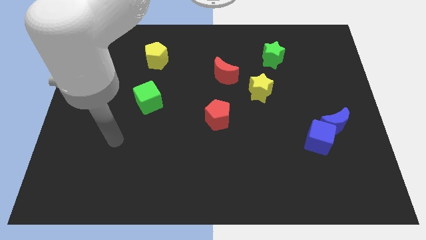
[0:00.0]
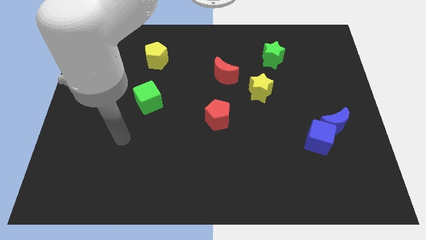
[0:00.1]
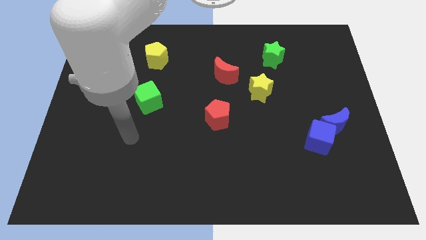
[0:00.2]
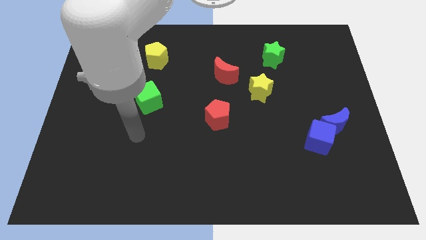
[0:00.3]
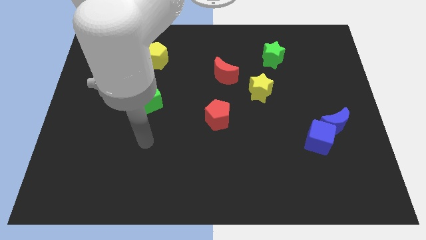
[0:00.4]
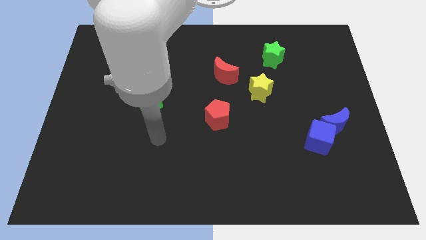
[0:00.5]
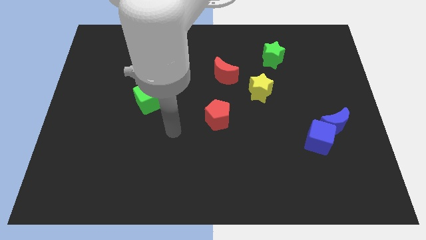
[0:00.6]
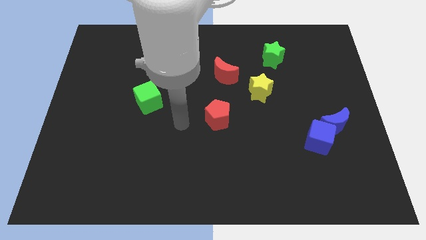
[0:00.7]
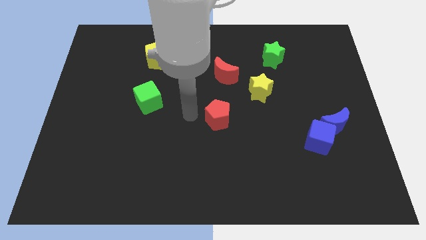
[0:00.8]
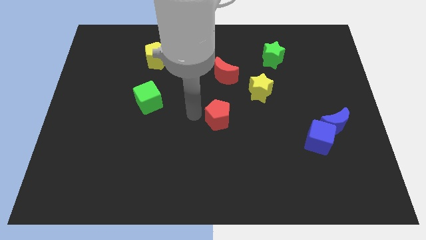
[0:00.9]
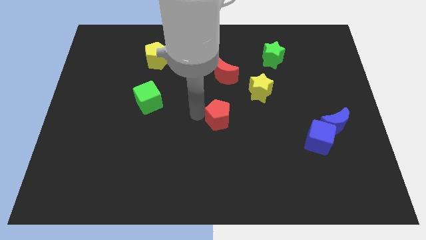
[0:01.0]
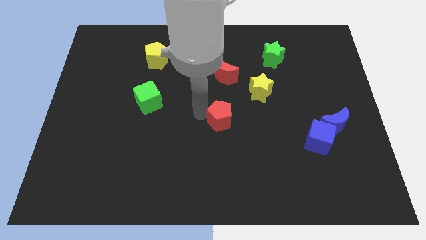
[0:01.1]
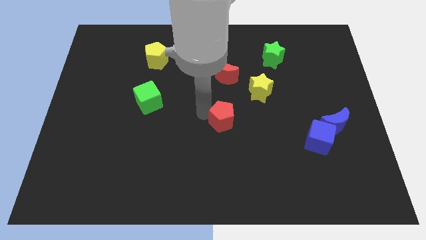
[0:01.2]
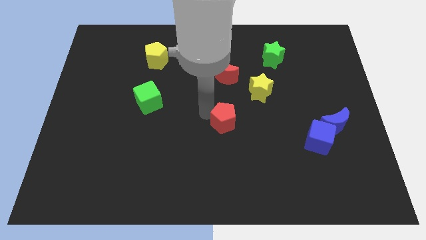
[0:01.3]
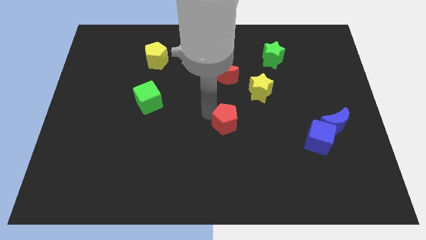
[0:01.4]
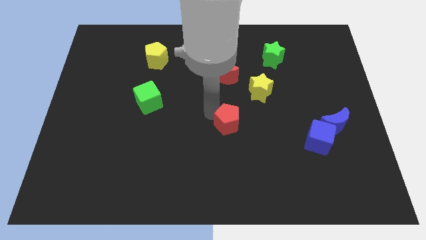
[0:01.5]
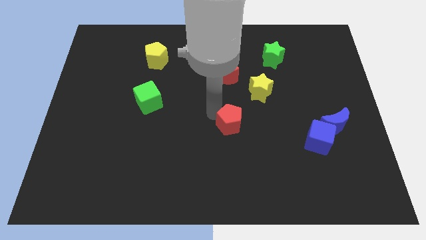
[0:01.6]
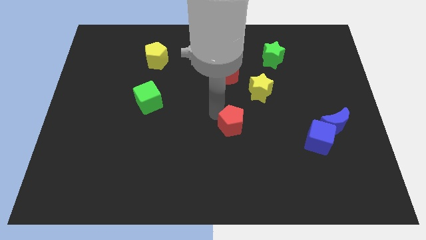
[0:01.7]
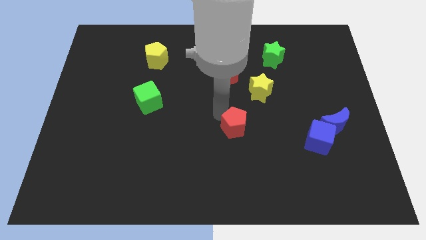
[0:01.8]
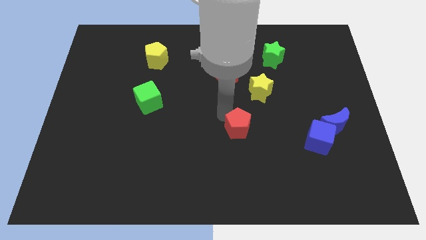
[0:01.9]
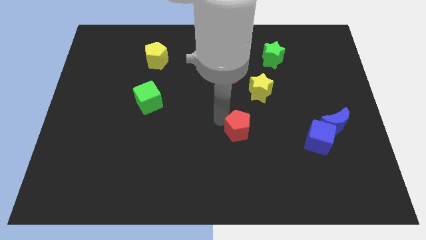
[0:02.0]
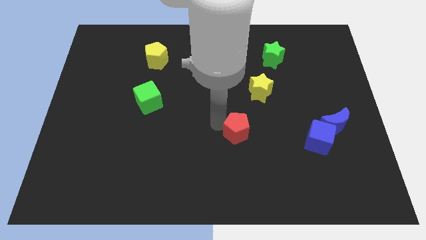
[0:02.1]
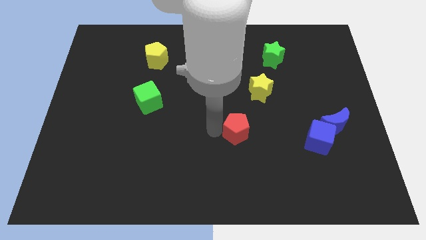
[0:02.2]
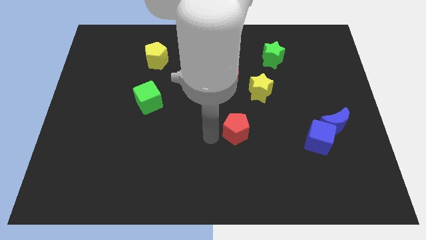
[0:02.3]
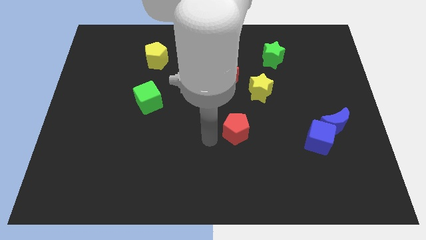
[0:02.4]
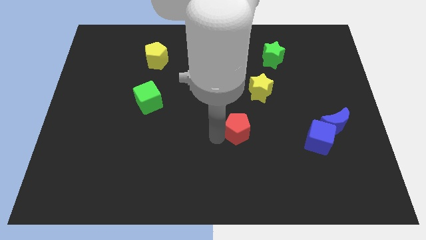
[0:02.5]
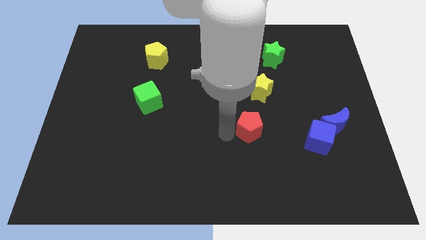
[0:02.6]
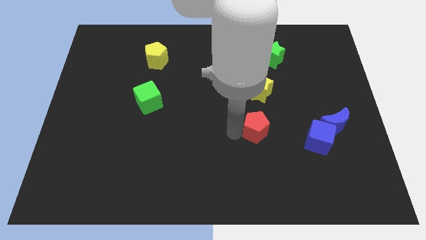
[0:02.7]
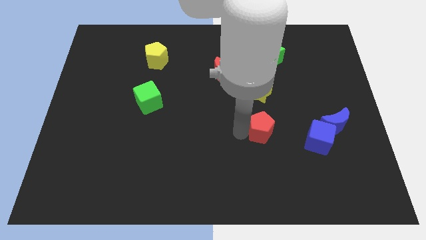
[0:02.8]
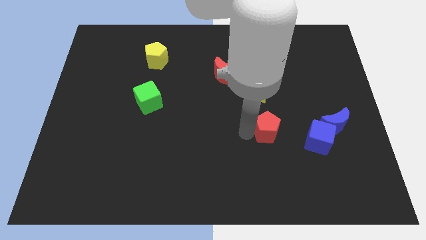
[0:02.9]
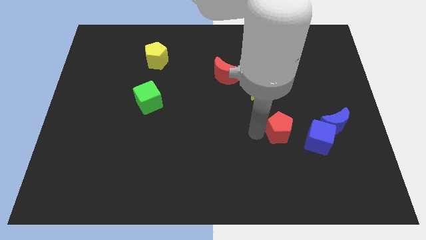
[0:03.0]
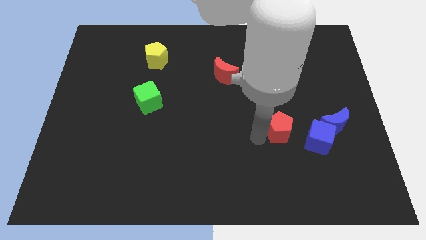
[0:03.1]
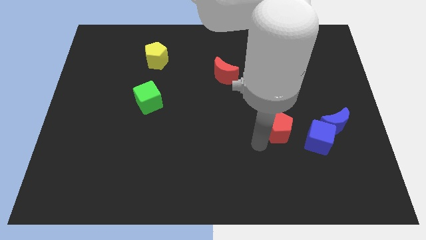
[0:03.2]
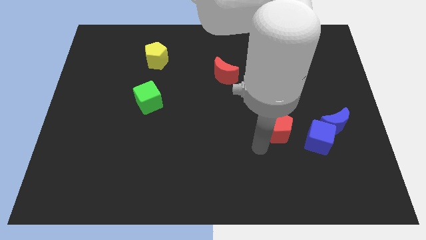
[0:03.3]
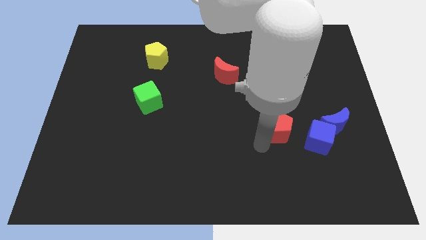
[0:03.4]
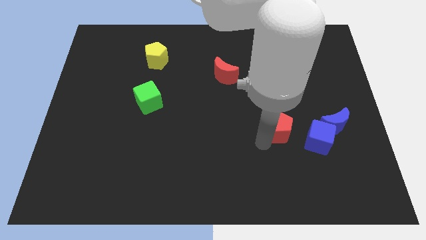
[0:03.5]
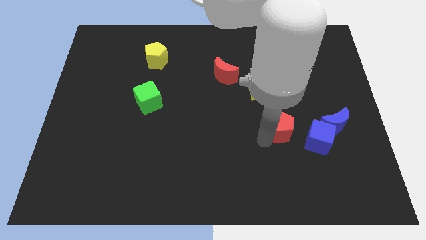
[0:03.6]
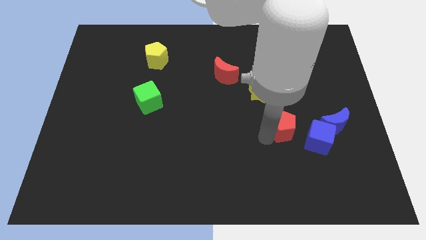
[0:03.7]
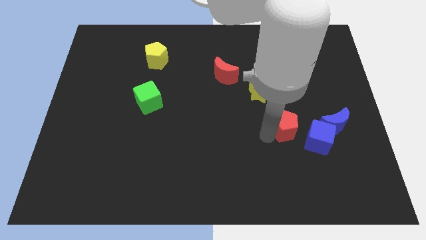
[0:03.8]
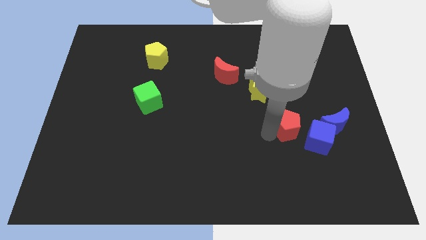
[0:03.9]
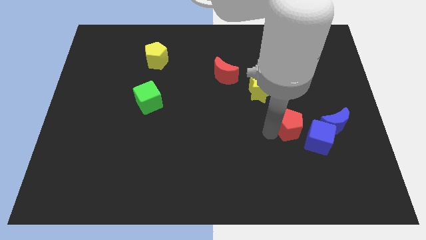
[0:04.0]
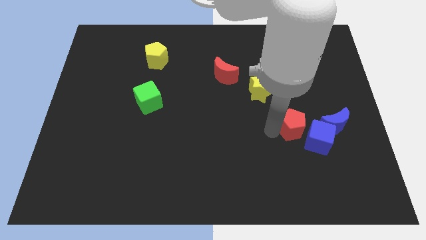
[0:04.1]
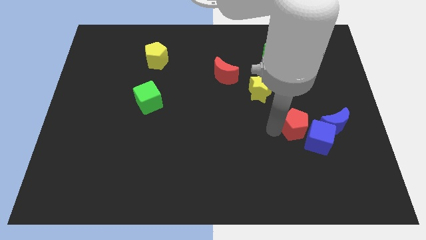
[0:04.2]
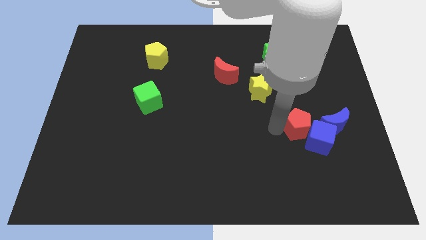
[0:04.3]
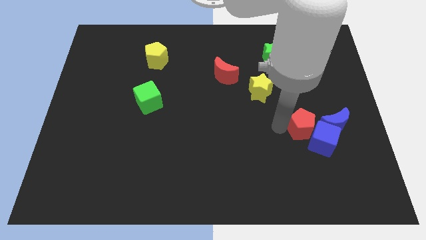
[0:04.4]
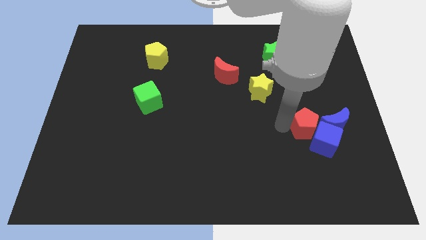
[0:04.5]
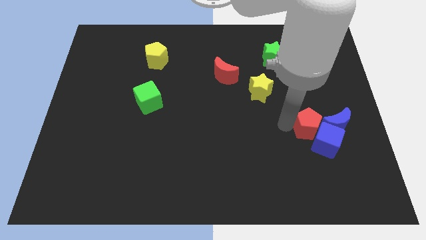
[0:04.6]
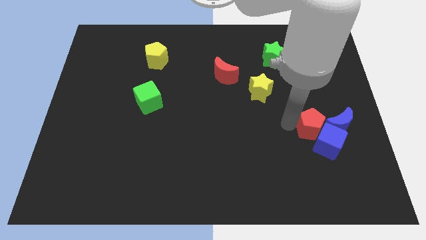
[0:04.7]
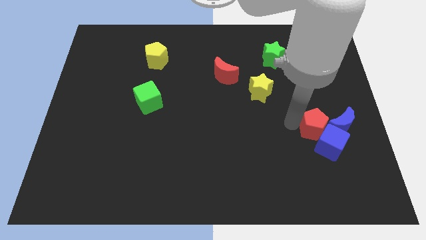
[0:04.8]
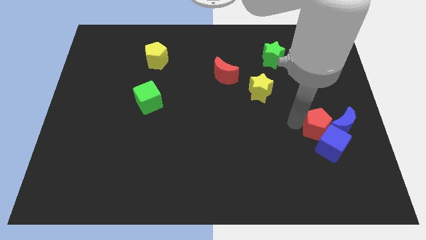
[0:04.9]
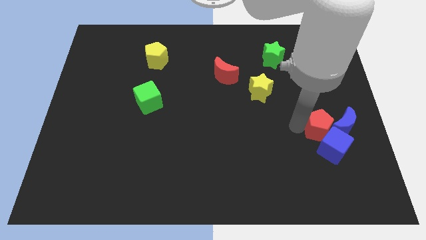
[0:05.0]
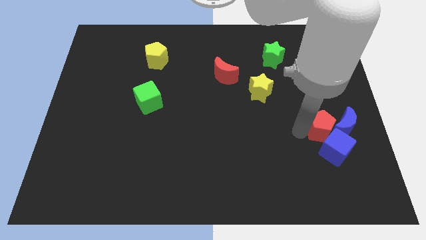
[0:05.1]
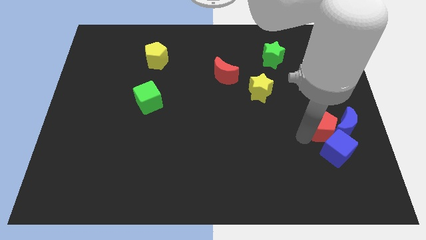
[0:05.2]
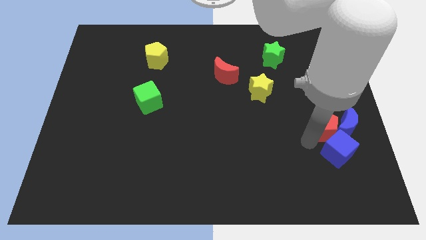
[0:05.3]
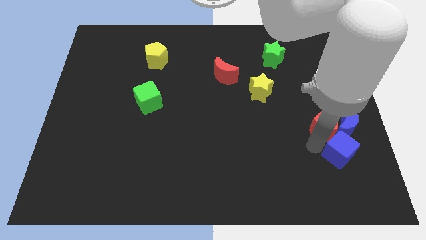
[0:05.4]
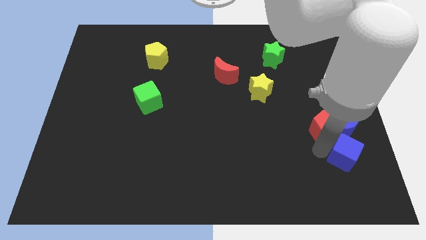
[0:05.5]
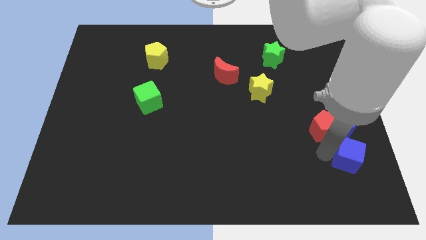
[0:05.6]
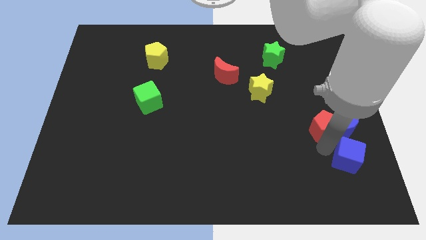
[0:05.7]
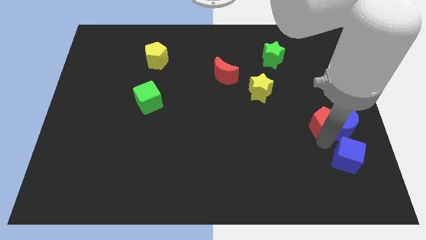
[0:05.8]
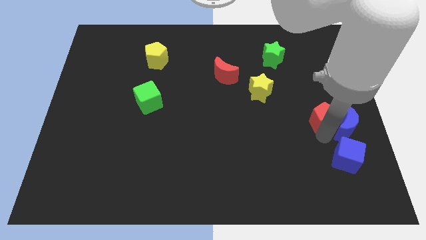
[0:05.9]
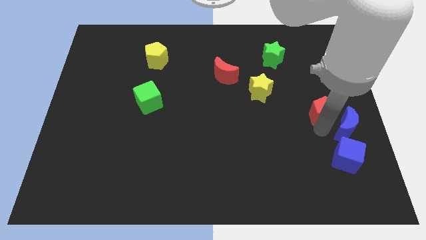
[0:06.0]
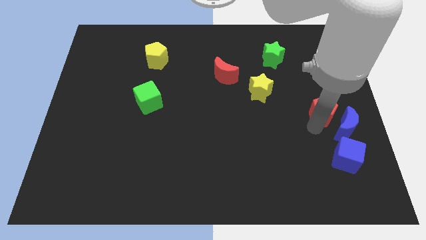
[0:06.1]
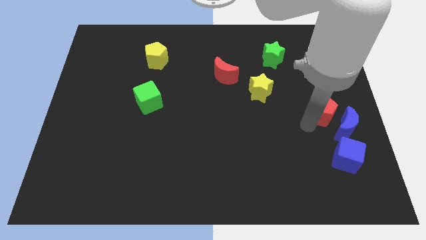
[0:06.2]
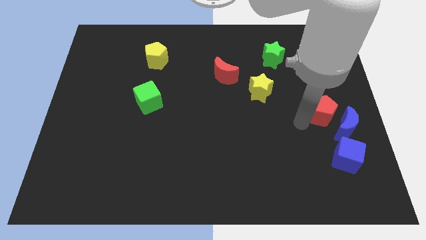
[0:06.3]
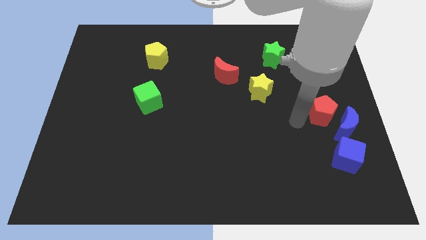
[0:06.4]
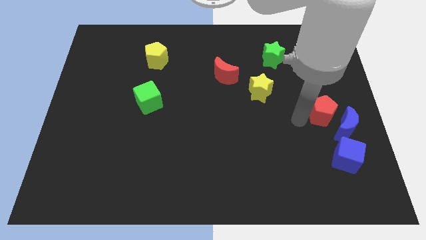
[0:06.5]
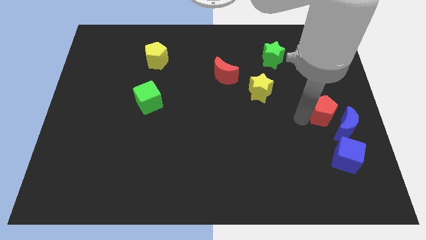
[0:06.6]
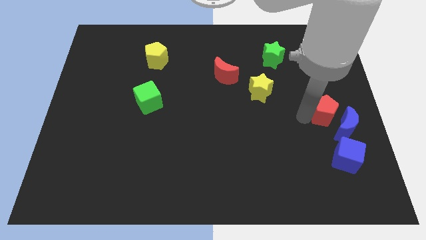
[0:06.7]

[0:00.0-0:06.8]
slide the red pentagon to the right side

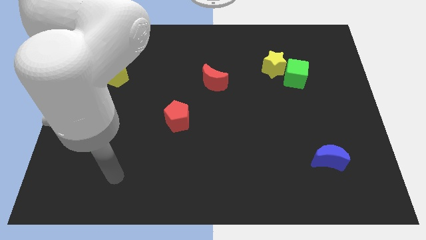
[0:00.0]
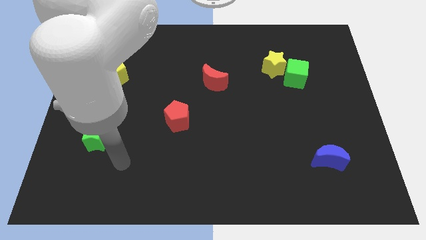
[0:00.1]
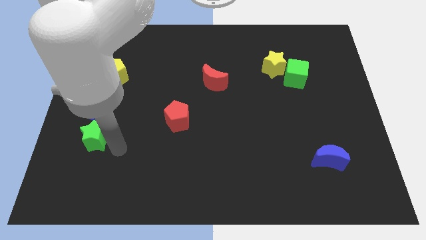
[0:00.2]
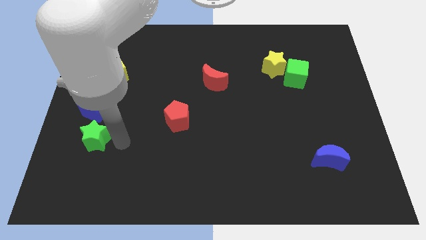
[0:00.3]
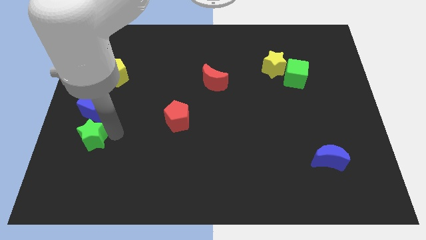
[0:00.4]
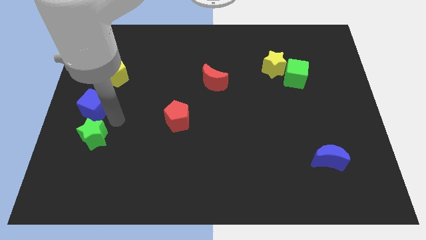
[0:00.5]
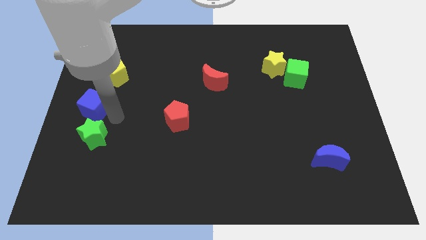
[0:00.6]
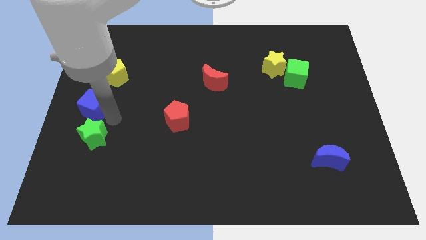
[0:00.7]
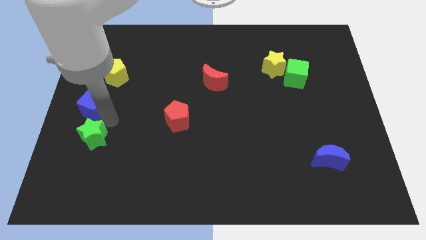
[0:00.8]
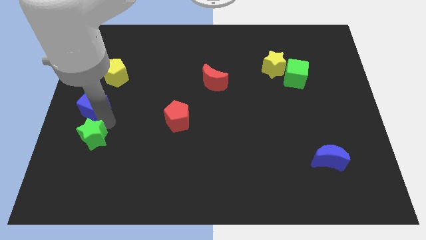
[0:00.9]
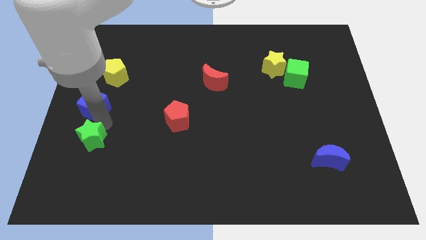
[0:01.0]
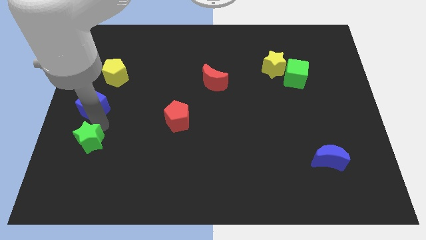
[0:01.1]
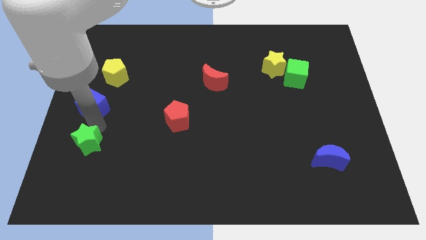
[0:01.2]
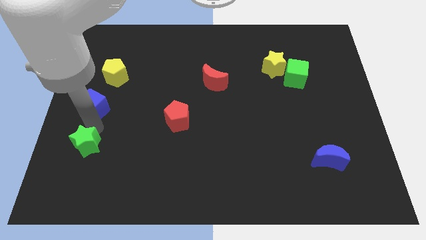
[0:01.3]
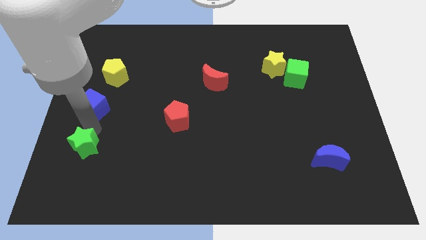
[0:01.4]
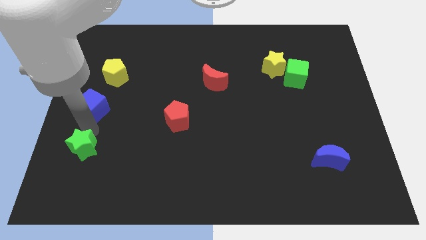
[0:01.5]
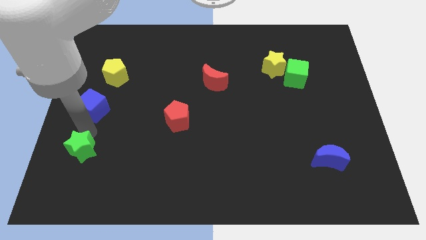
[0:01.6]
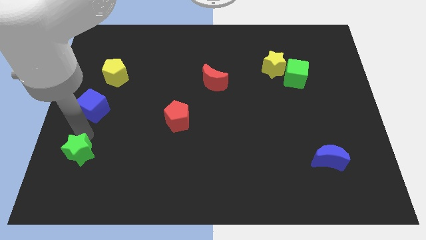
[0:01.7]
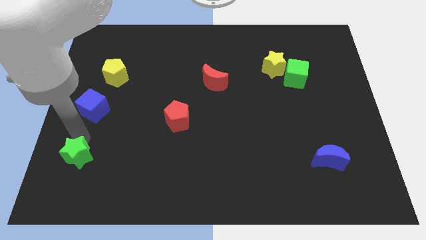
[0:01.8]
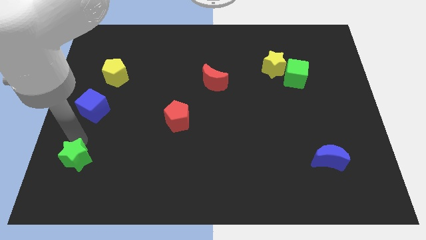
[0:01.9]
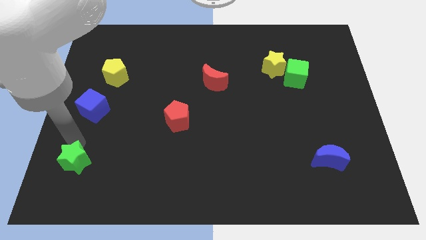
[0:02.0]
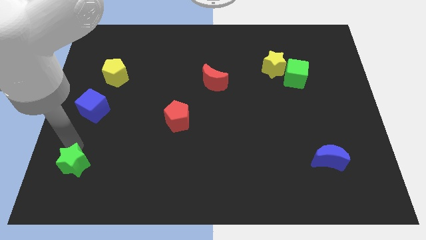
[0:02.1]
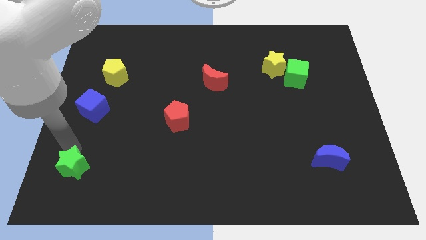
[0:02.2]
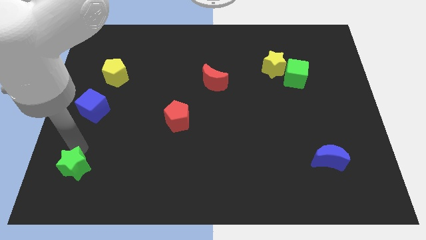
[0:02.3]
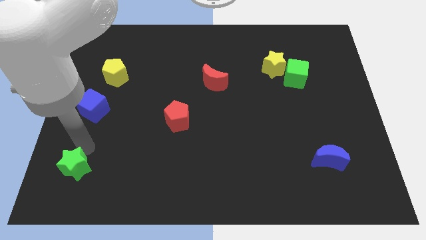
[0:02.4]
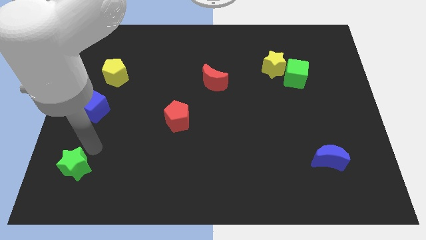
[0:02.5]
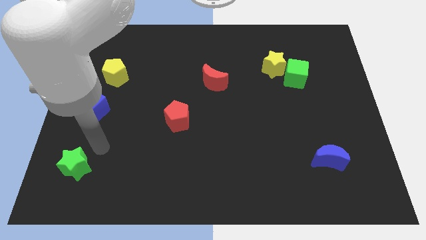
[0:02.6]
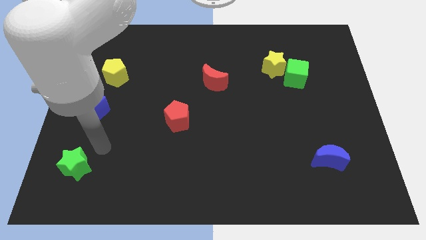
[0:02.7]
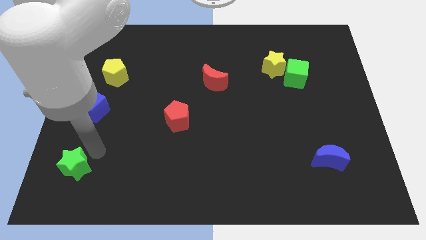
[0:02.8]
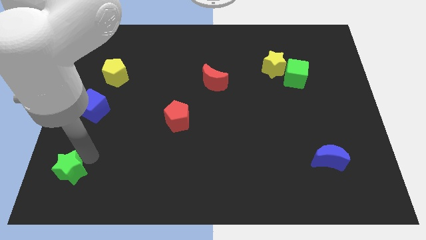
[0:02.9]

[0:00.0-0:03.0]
slide the green star to the bottom left
